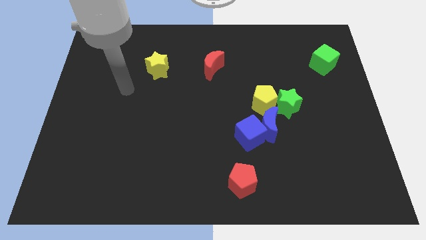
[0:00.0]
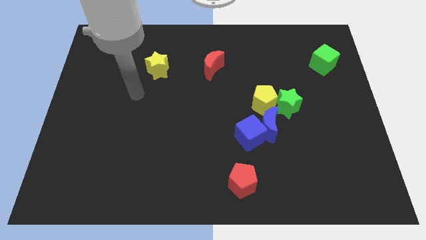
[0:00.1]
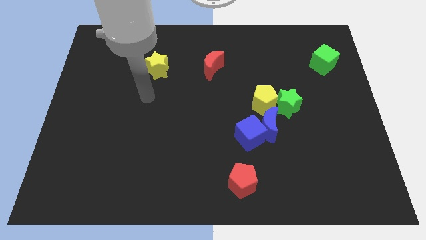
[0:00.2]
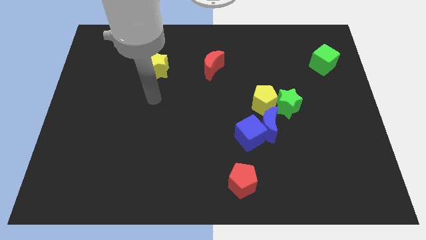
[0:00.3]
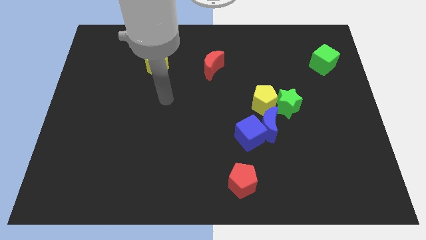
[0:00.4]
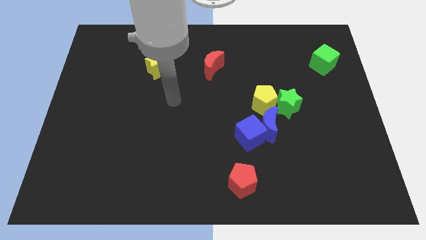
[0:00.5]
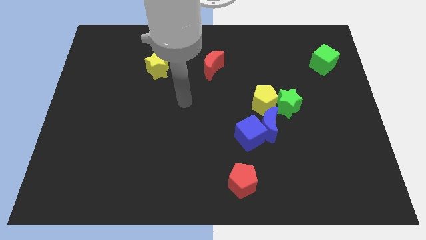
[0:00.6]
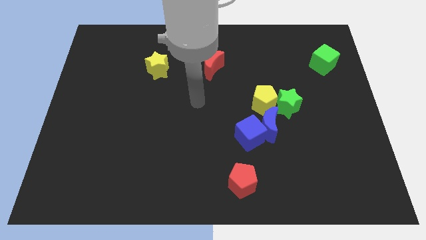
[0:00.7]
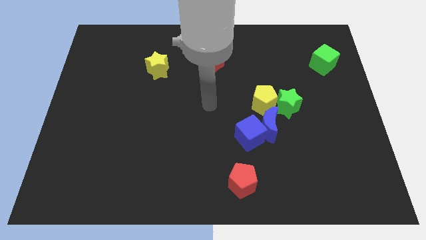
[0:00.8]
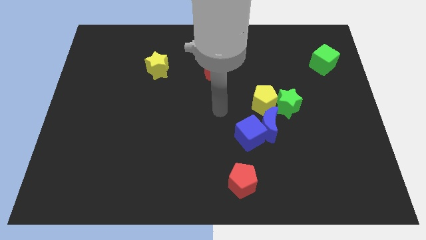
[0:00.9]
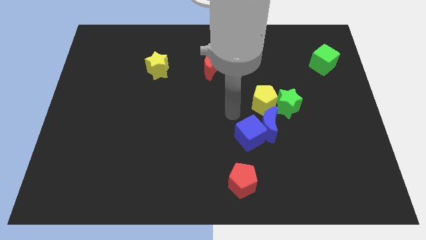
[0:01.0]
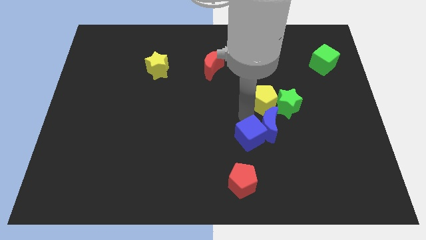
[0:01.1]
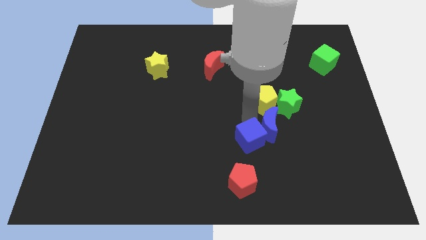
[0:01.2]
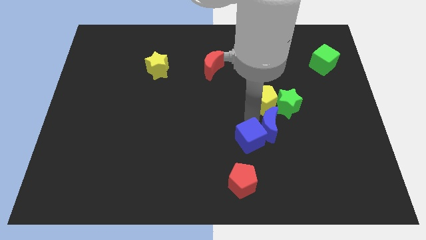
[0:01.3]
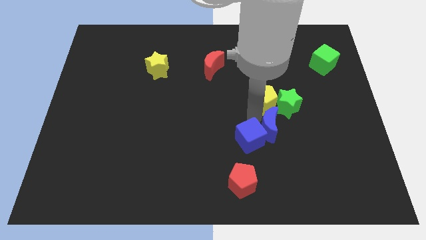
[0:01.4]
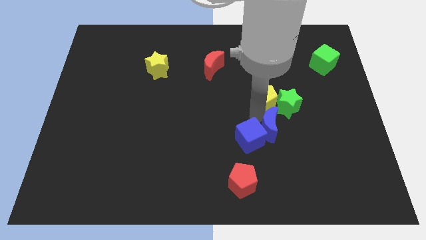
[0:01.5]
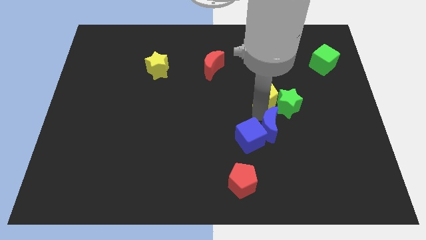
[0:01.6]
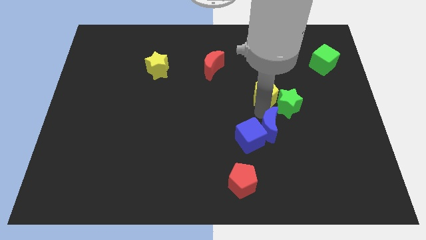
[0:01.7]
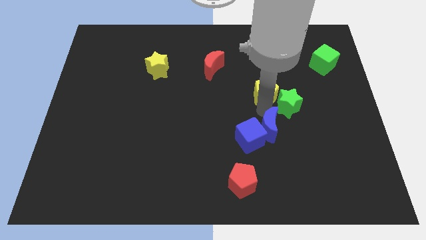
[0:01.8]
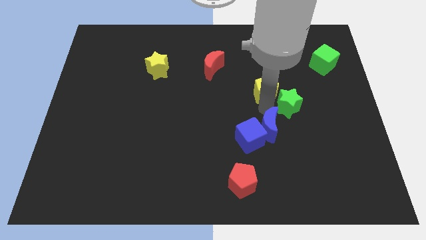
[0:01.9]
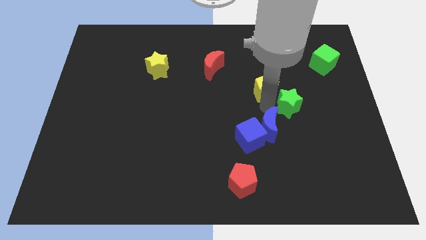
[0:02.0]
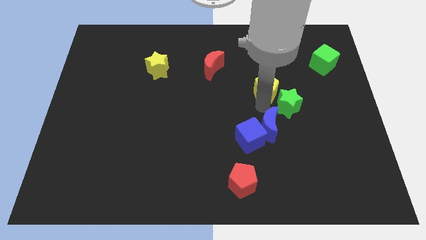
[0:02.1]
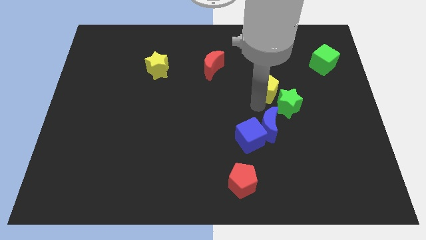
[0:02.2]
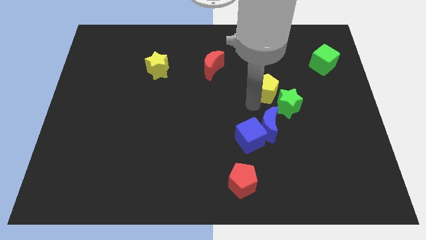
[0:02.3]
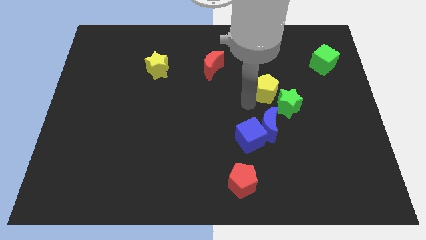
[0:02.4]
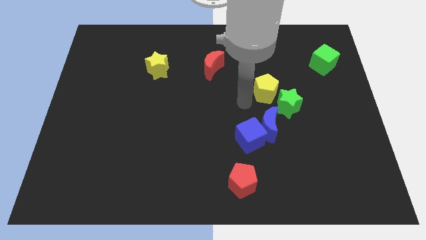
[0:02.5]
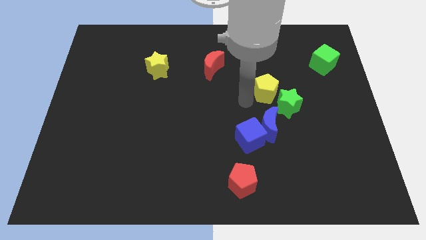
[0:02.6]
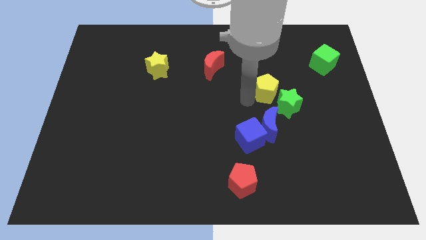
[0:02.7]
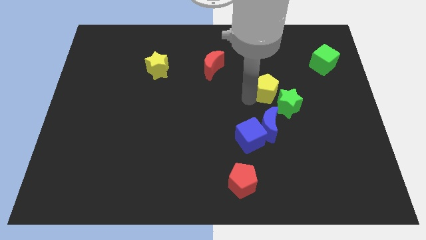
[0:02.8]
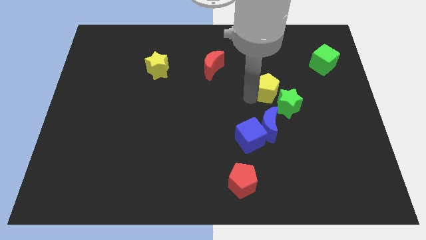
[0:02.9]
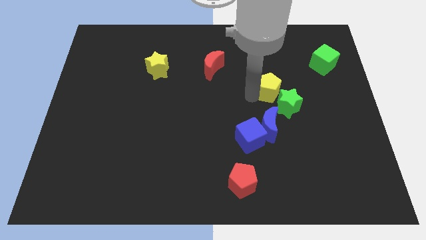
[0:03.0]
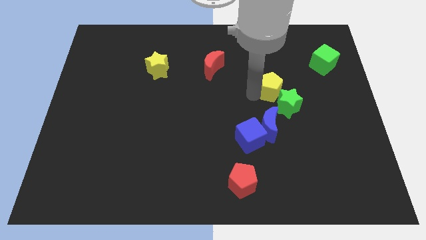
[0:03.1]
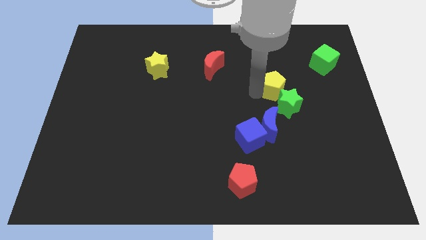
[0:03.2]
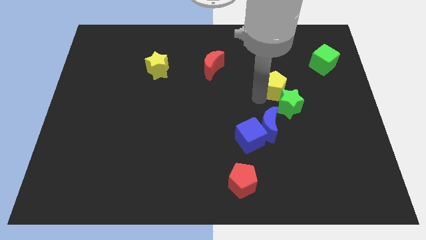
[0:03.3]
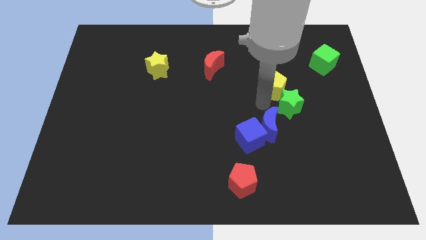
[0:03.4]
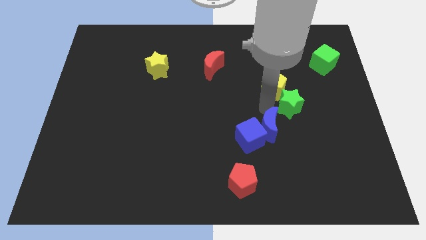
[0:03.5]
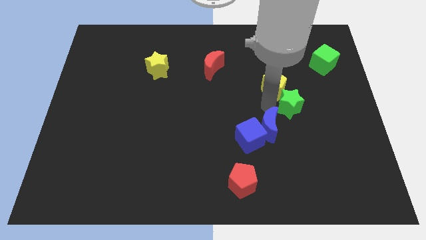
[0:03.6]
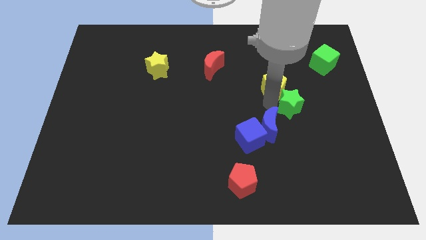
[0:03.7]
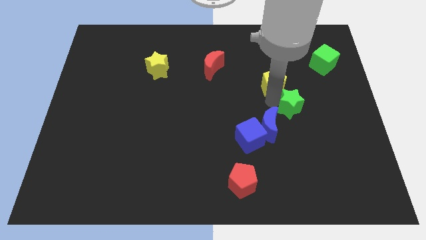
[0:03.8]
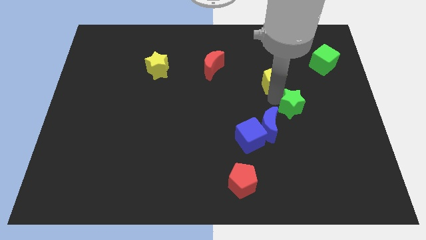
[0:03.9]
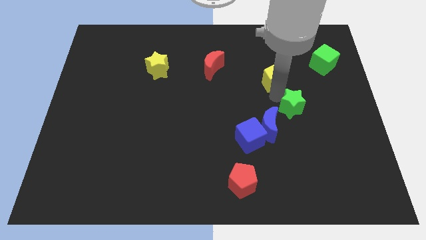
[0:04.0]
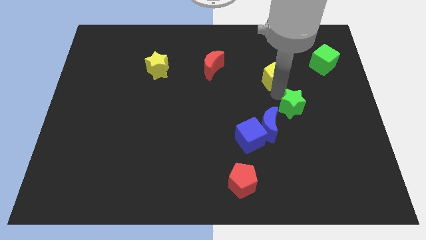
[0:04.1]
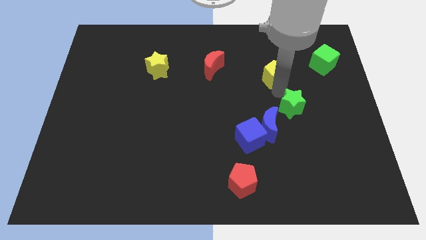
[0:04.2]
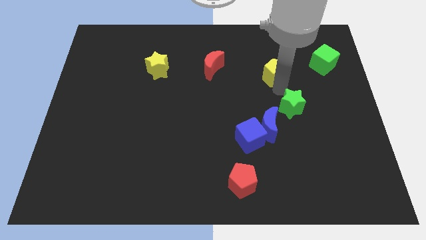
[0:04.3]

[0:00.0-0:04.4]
put the yellow pentagon left of the green cube

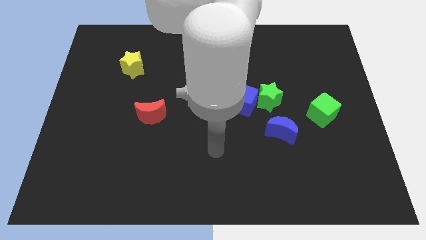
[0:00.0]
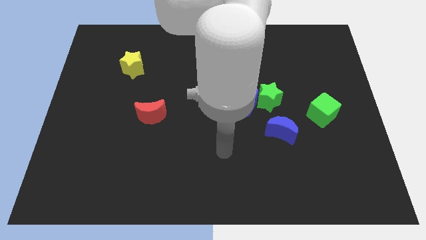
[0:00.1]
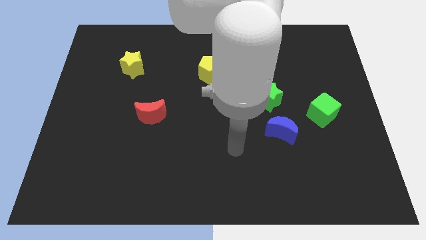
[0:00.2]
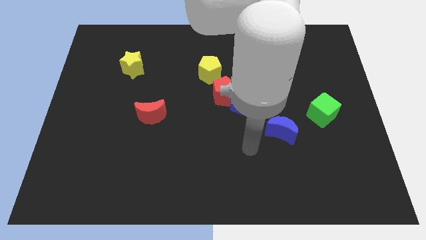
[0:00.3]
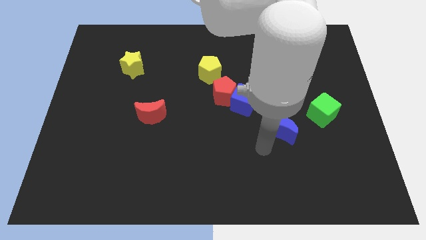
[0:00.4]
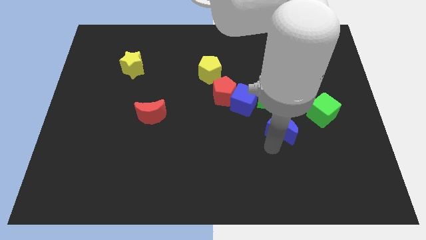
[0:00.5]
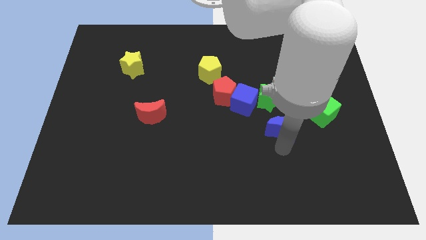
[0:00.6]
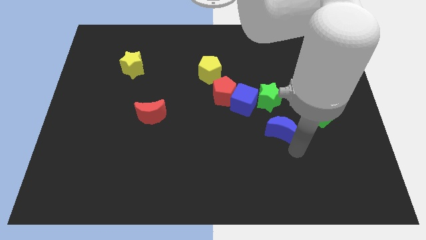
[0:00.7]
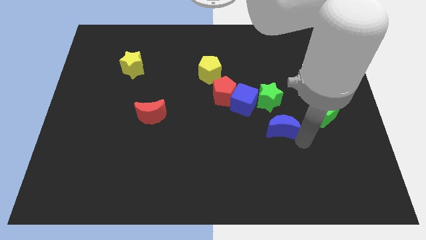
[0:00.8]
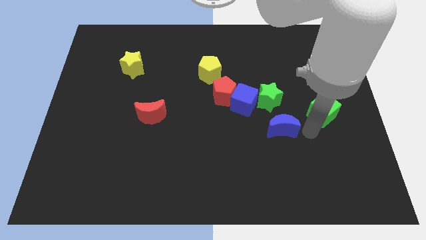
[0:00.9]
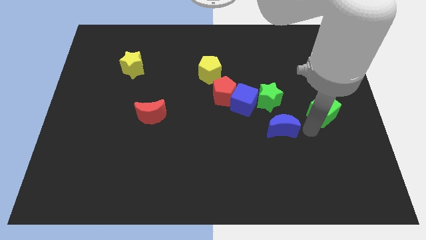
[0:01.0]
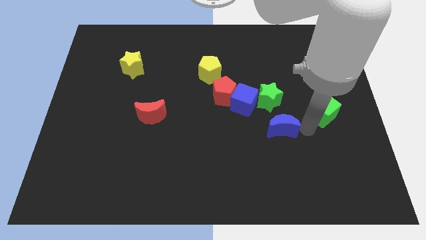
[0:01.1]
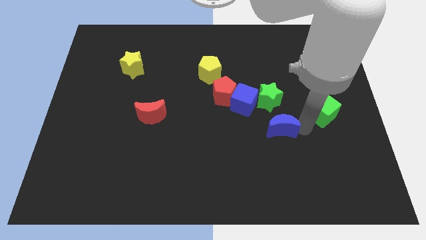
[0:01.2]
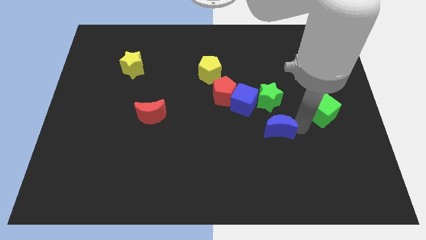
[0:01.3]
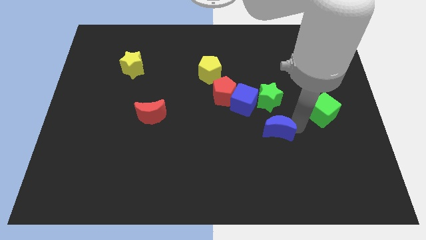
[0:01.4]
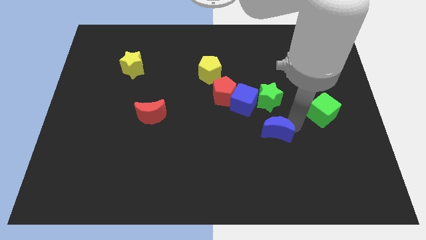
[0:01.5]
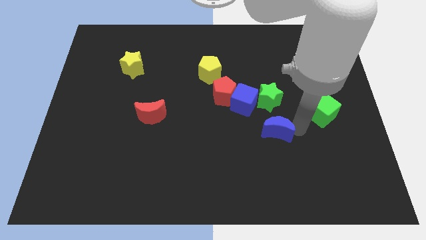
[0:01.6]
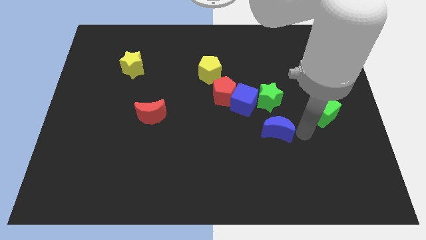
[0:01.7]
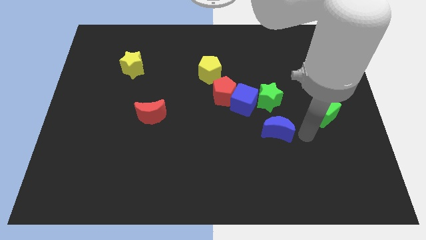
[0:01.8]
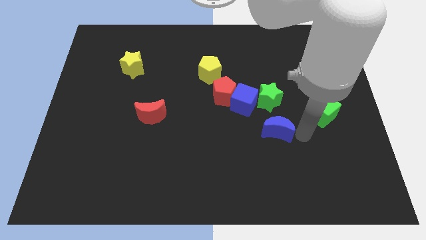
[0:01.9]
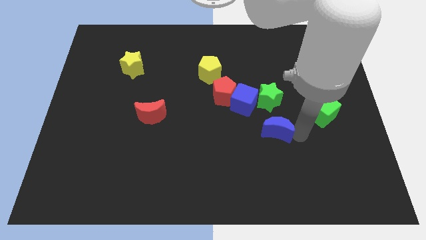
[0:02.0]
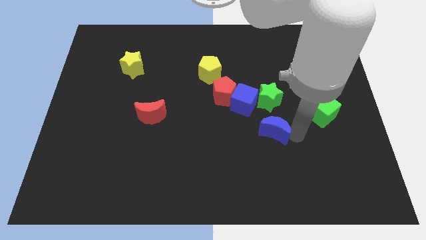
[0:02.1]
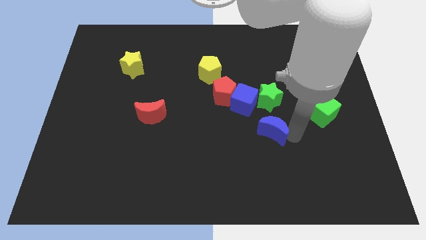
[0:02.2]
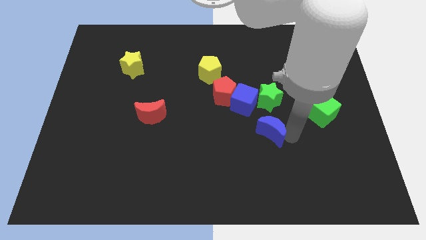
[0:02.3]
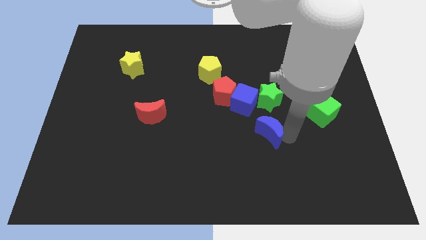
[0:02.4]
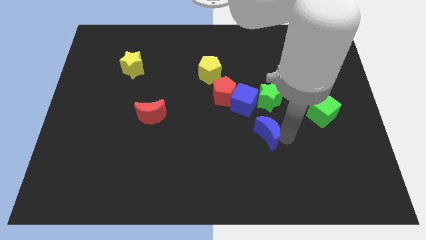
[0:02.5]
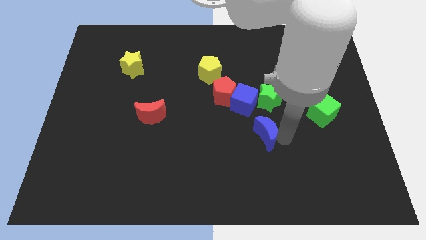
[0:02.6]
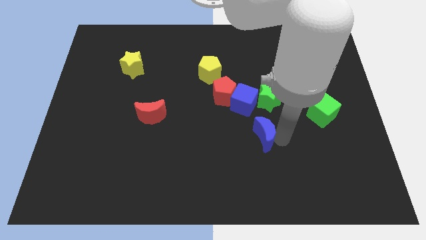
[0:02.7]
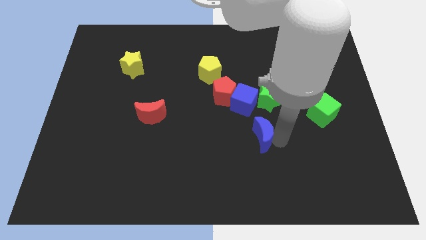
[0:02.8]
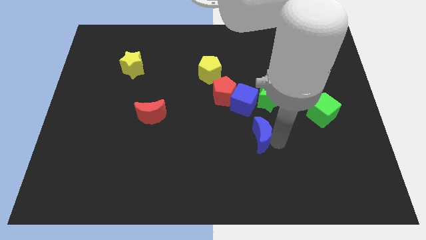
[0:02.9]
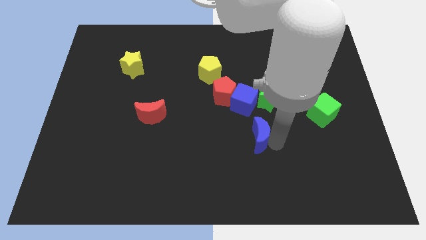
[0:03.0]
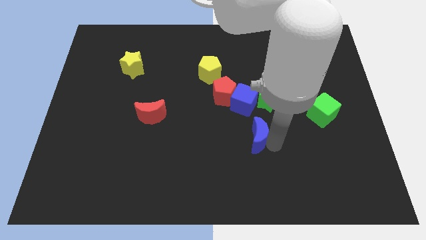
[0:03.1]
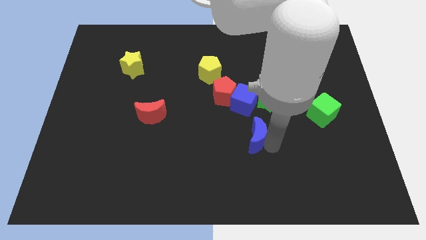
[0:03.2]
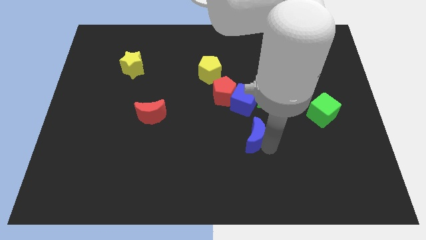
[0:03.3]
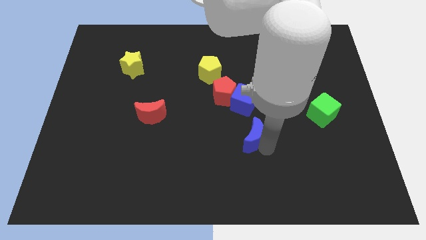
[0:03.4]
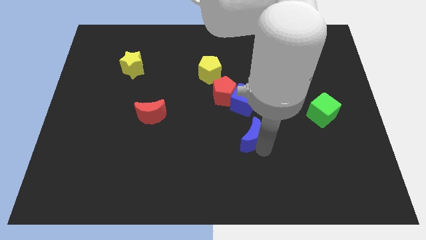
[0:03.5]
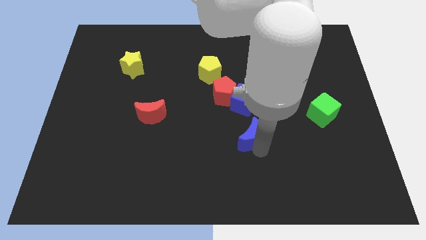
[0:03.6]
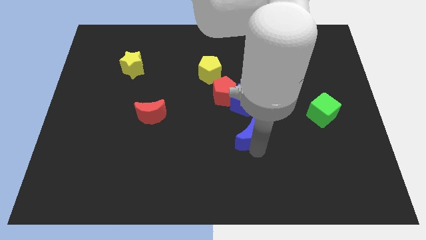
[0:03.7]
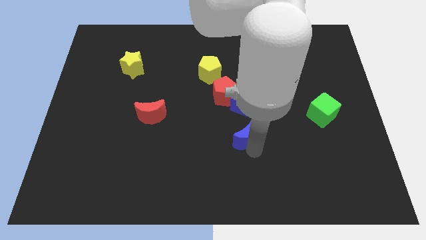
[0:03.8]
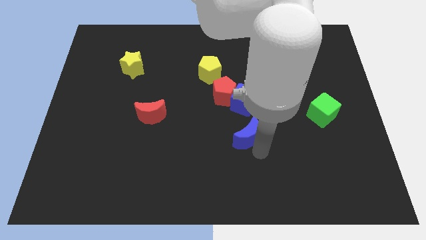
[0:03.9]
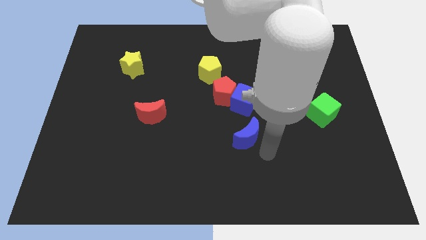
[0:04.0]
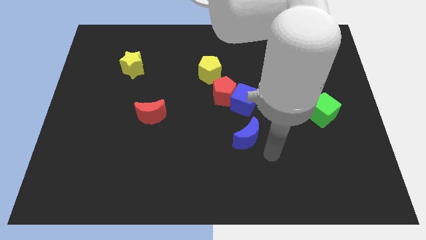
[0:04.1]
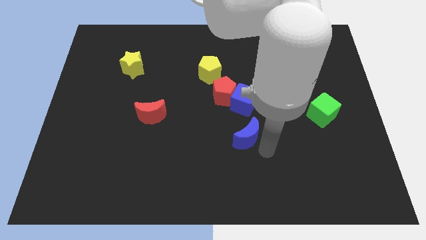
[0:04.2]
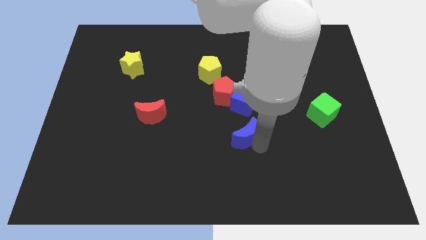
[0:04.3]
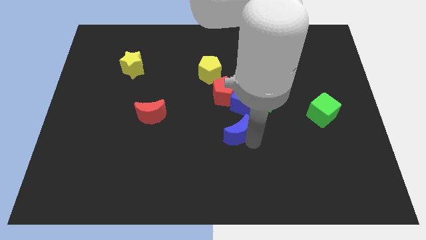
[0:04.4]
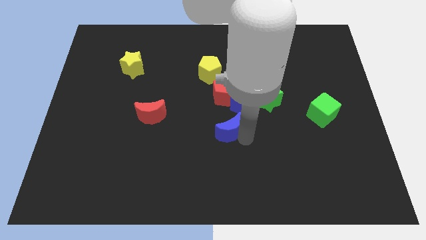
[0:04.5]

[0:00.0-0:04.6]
slide the blue moon to the bottom left side of the blue cube
